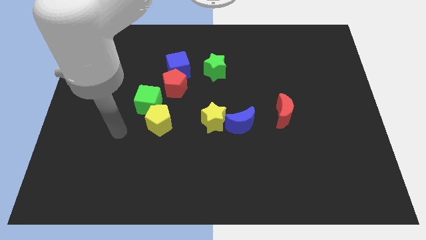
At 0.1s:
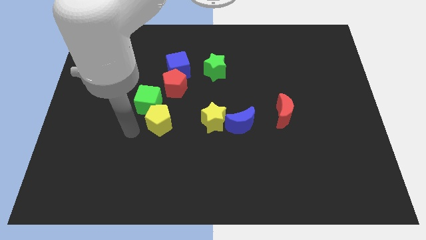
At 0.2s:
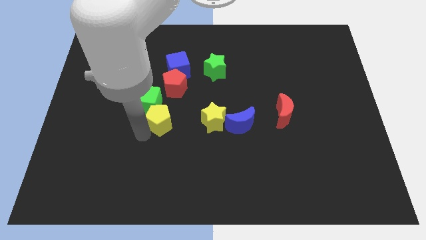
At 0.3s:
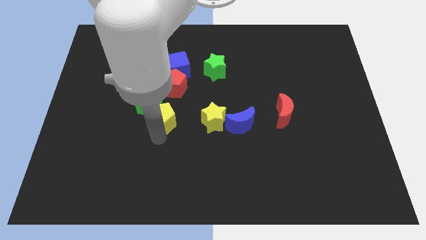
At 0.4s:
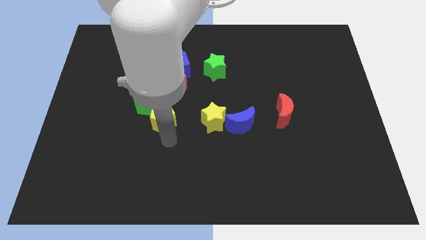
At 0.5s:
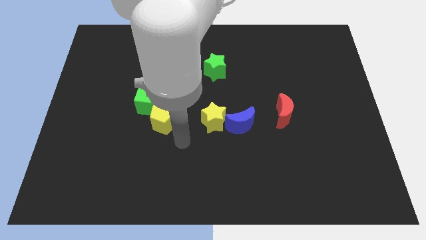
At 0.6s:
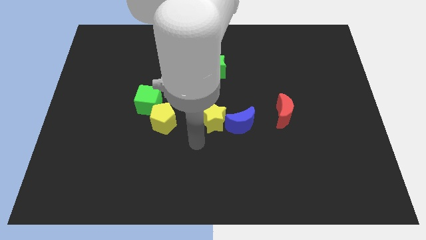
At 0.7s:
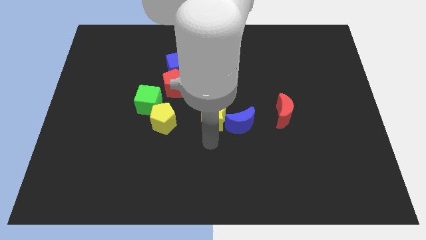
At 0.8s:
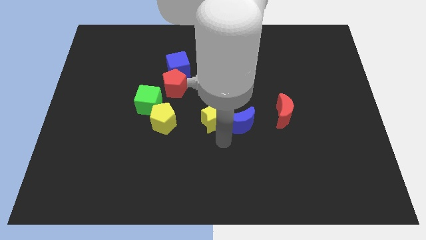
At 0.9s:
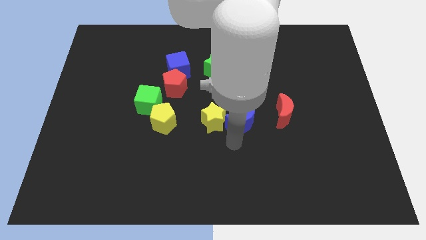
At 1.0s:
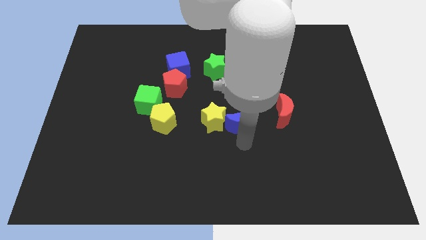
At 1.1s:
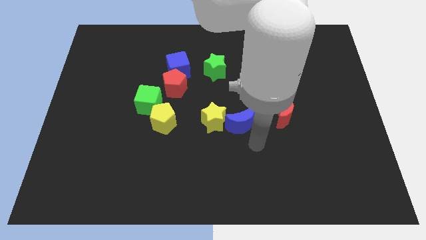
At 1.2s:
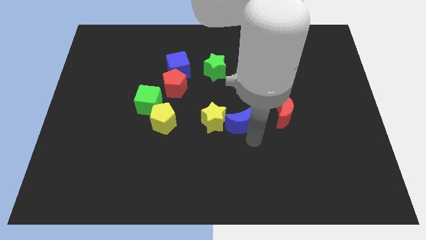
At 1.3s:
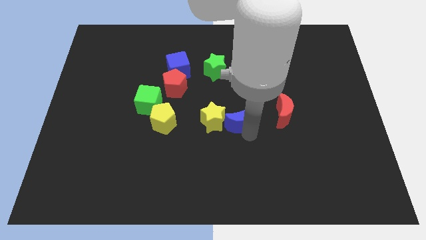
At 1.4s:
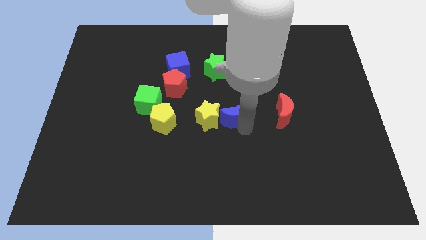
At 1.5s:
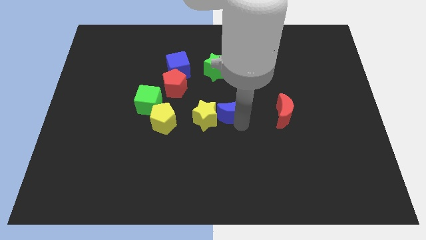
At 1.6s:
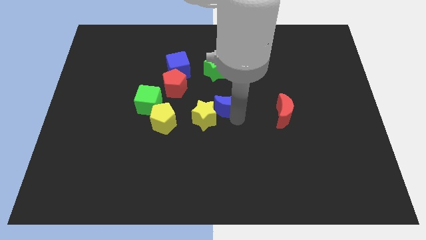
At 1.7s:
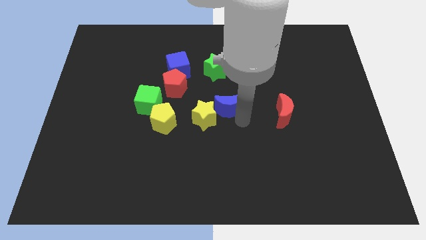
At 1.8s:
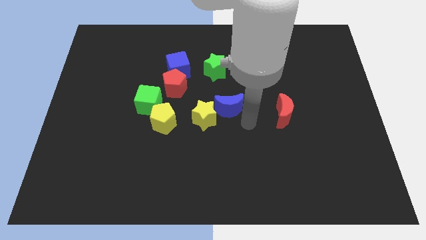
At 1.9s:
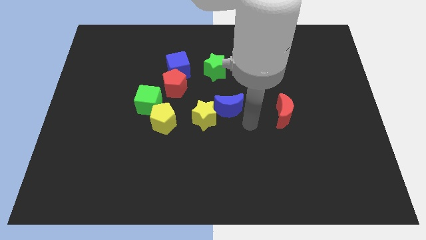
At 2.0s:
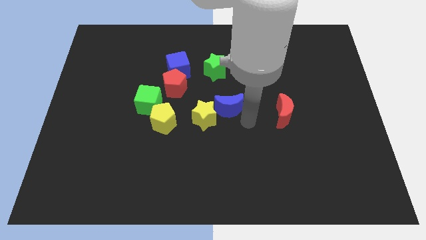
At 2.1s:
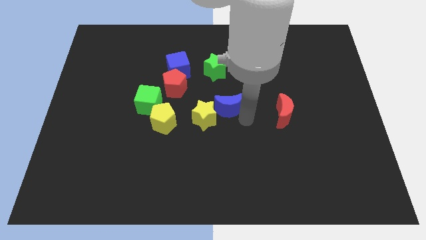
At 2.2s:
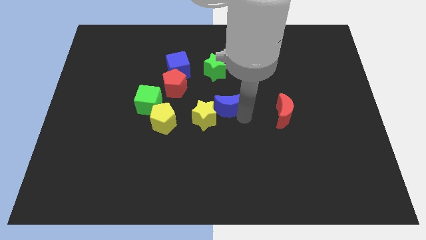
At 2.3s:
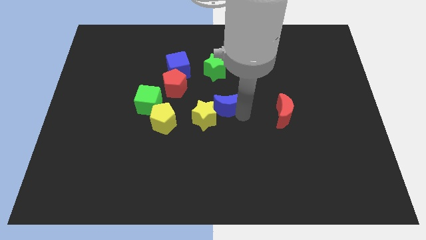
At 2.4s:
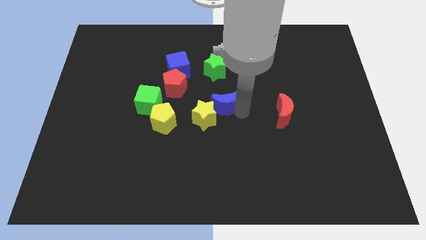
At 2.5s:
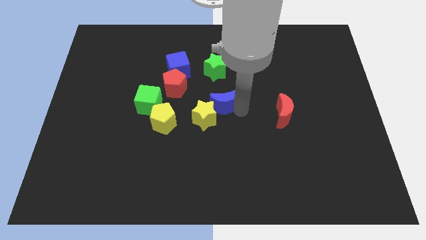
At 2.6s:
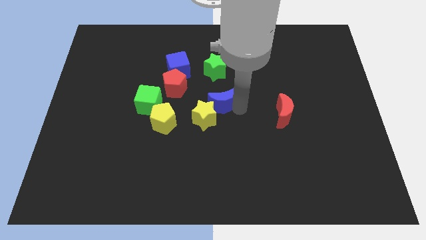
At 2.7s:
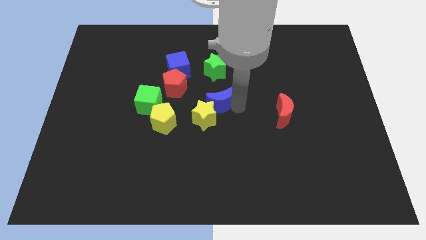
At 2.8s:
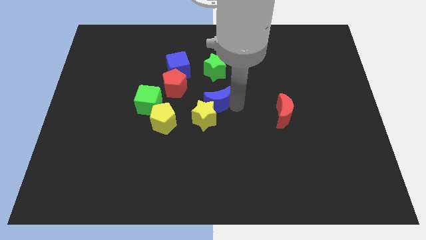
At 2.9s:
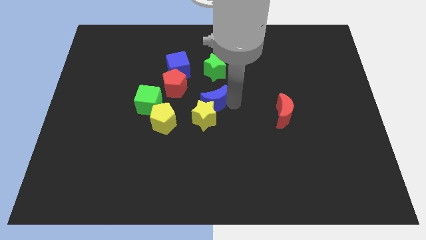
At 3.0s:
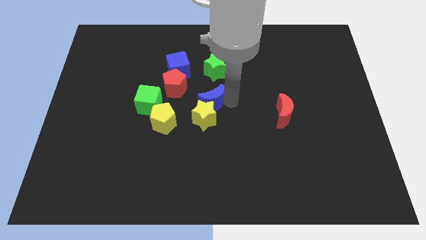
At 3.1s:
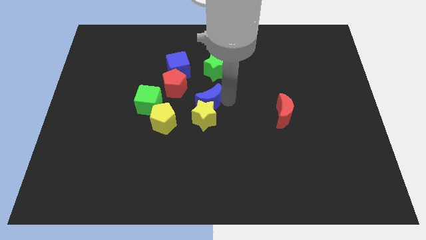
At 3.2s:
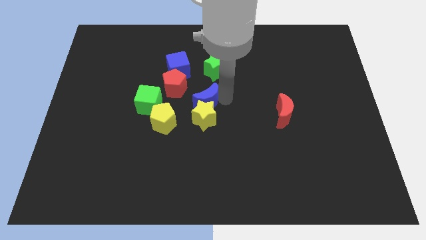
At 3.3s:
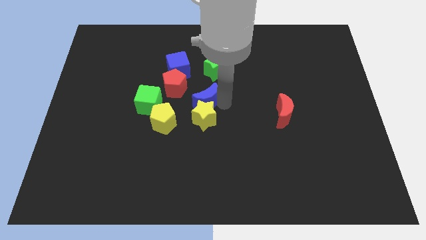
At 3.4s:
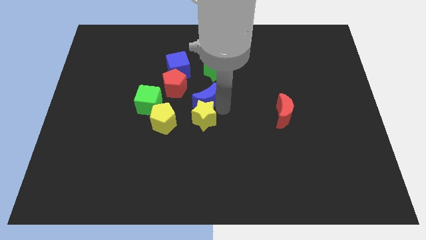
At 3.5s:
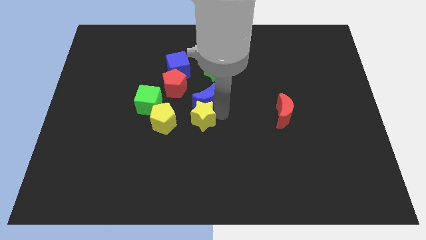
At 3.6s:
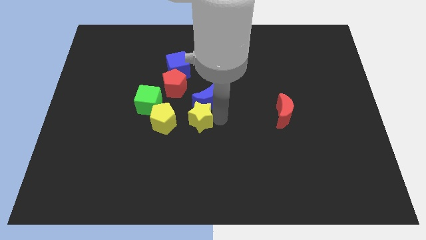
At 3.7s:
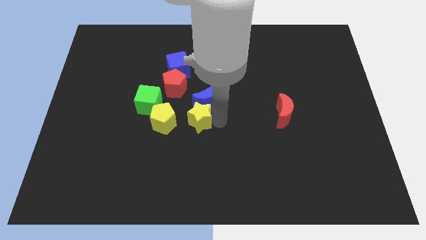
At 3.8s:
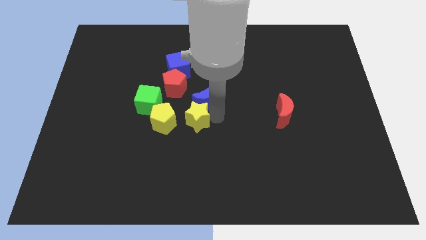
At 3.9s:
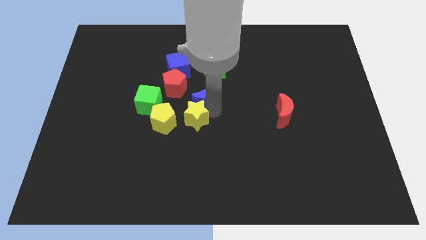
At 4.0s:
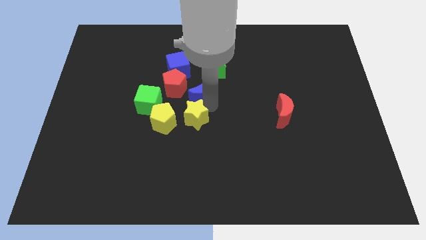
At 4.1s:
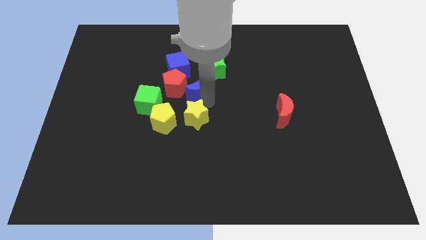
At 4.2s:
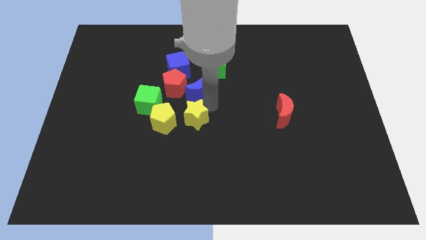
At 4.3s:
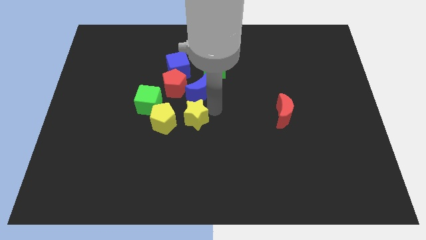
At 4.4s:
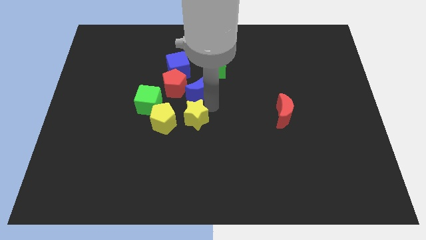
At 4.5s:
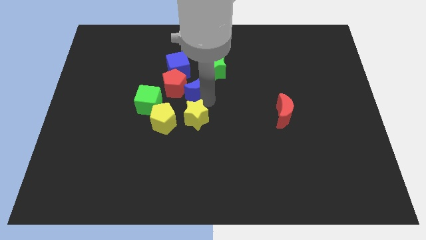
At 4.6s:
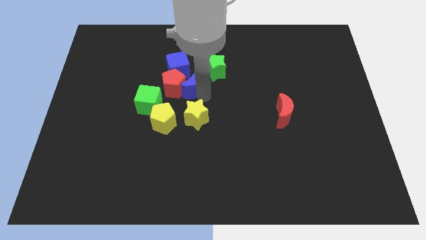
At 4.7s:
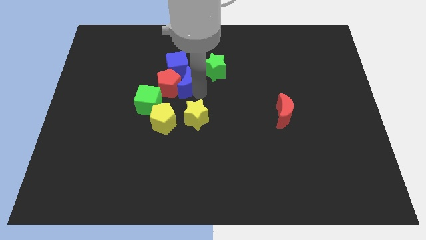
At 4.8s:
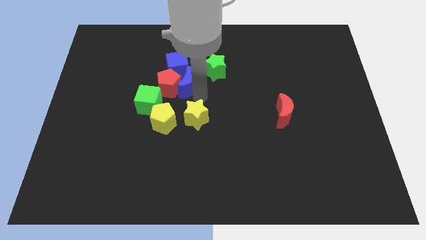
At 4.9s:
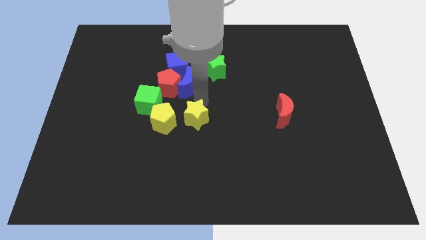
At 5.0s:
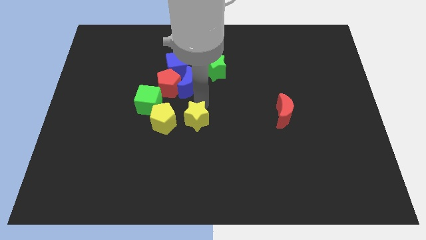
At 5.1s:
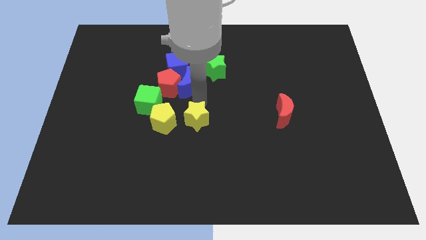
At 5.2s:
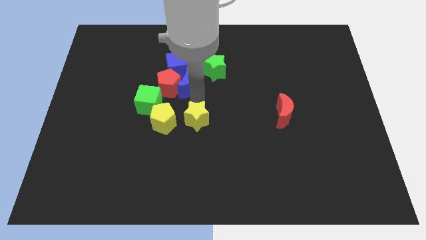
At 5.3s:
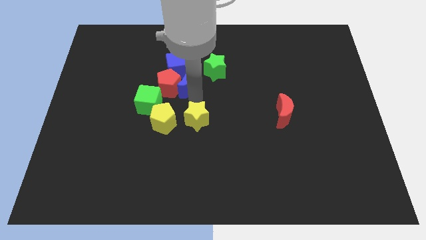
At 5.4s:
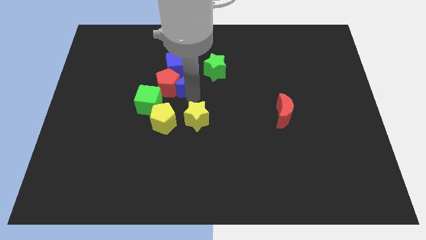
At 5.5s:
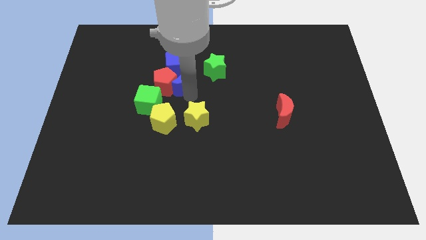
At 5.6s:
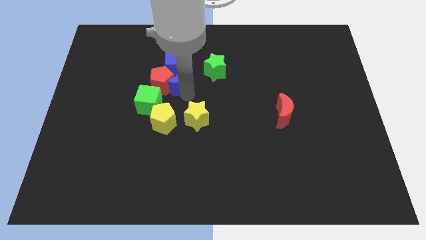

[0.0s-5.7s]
push the blue moon towards the blue cube

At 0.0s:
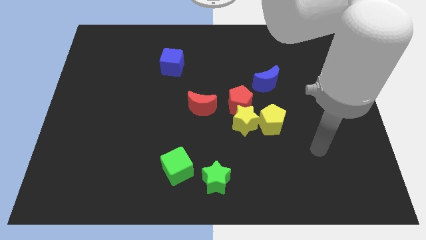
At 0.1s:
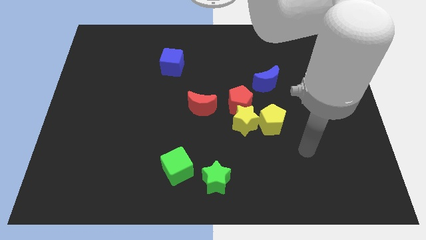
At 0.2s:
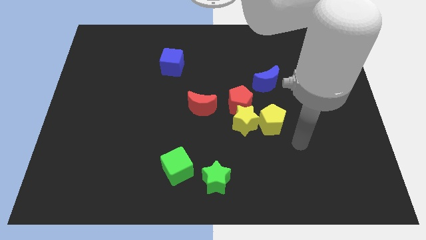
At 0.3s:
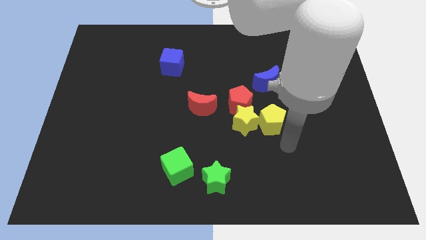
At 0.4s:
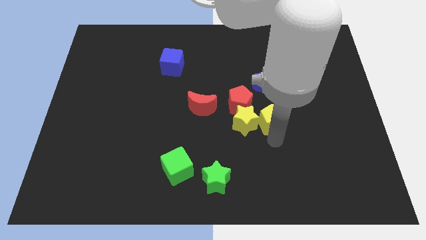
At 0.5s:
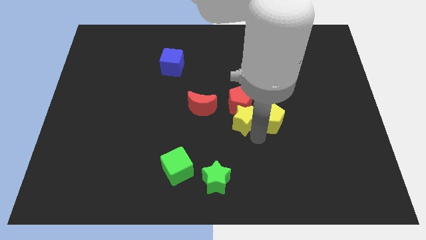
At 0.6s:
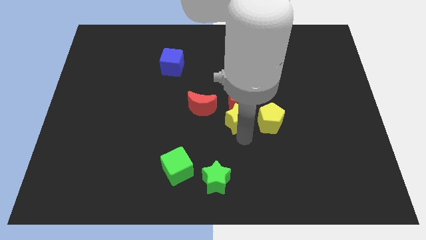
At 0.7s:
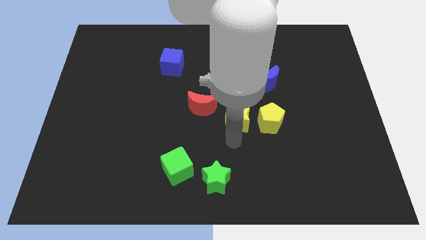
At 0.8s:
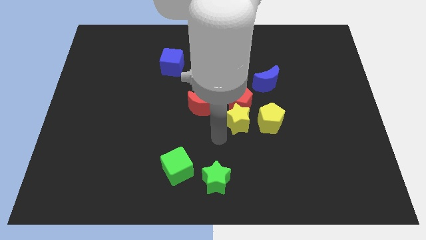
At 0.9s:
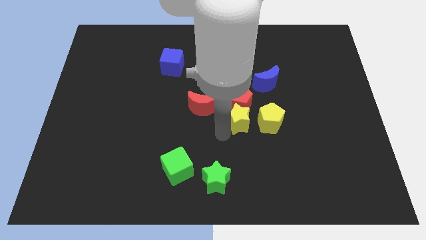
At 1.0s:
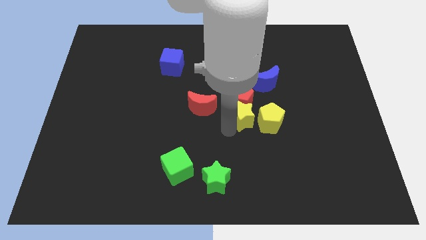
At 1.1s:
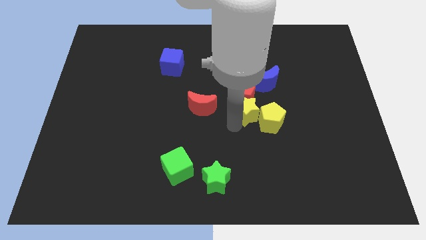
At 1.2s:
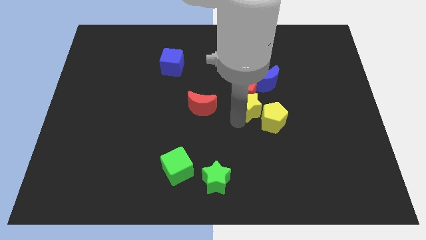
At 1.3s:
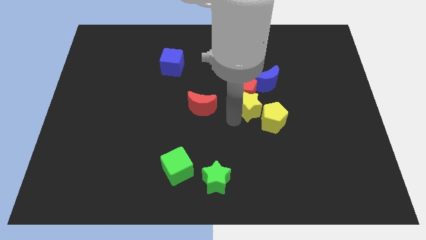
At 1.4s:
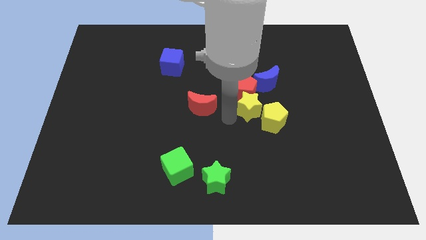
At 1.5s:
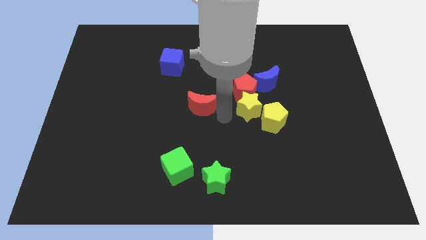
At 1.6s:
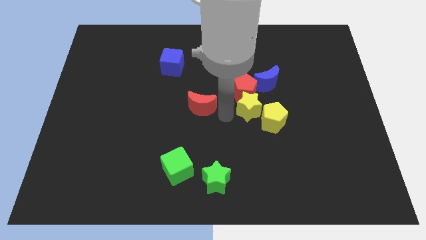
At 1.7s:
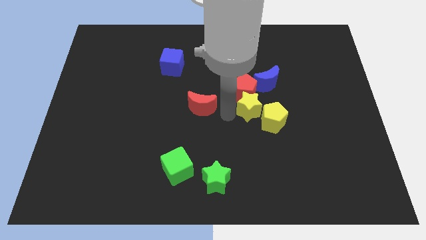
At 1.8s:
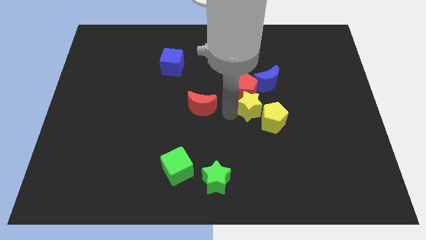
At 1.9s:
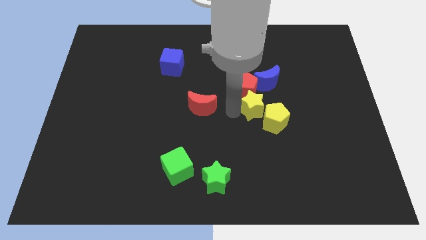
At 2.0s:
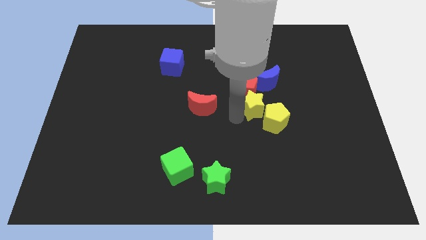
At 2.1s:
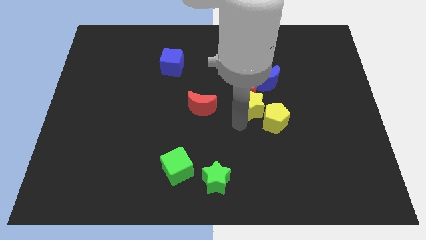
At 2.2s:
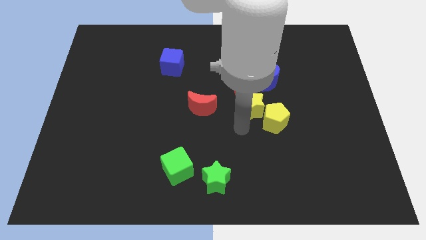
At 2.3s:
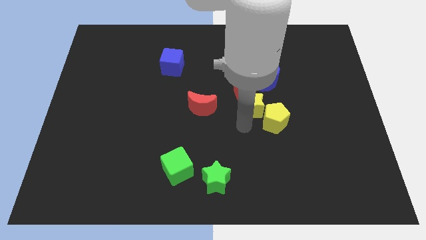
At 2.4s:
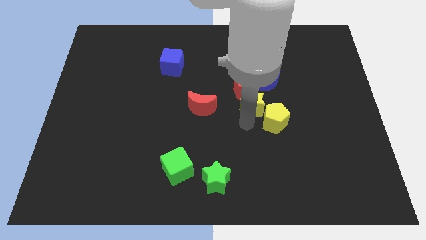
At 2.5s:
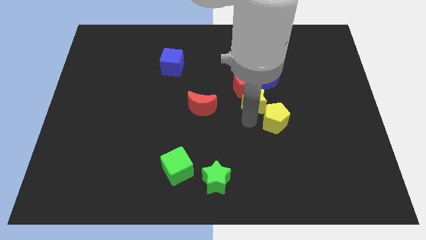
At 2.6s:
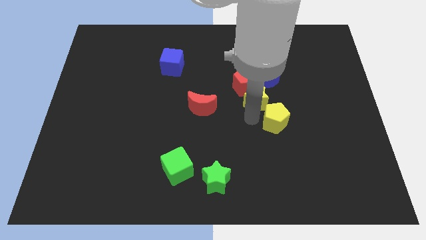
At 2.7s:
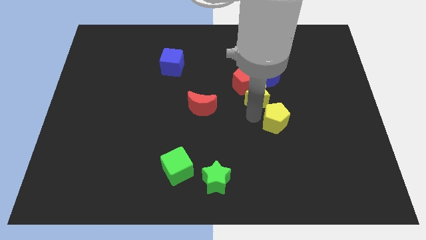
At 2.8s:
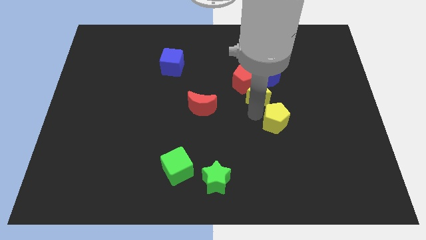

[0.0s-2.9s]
push the yellow star towards the blue moon
